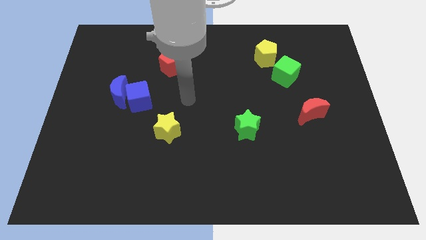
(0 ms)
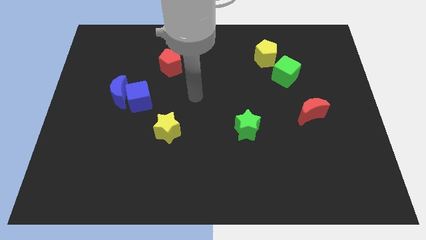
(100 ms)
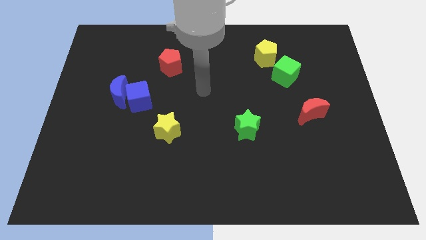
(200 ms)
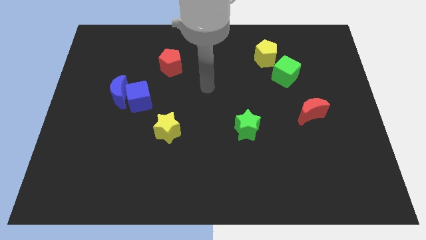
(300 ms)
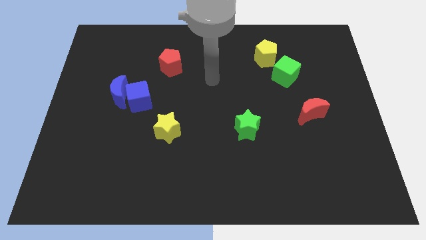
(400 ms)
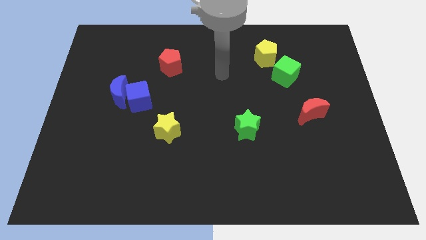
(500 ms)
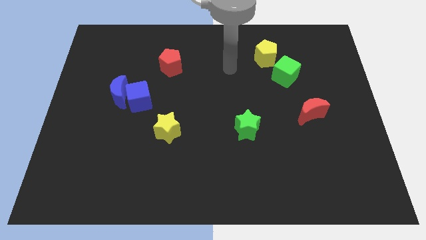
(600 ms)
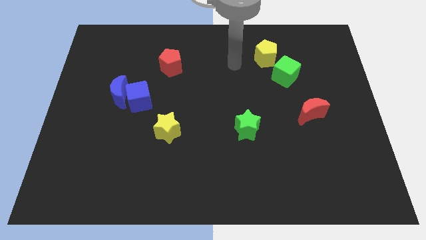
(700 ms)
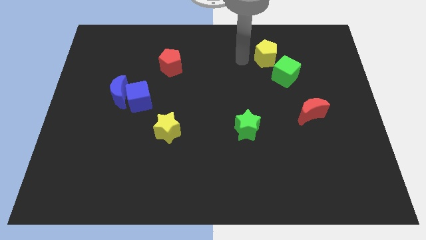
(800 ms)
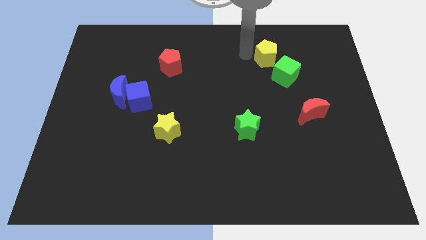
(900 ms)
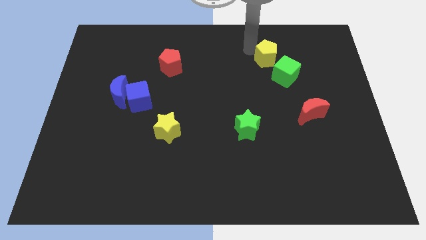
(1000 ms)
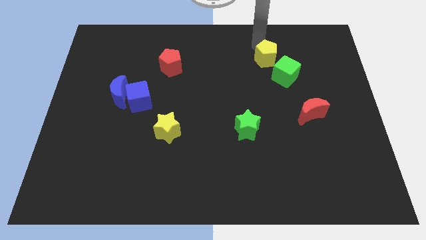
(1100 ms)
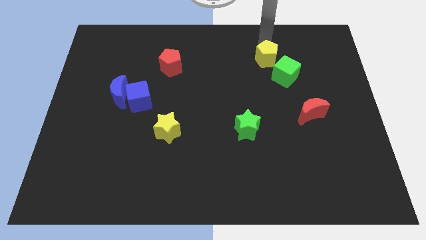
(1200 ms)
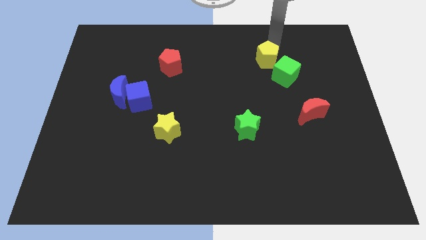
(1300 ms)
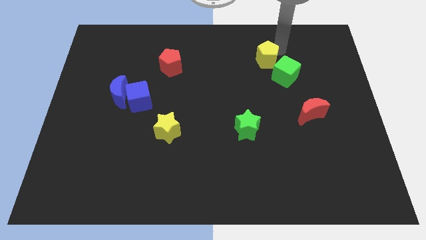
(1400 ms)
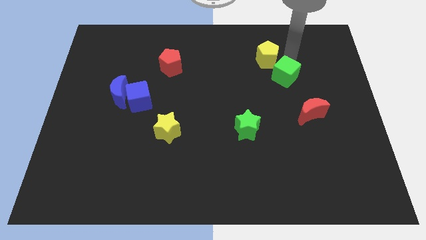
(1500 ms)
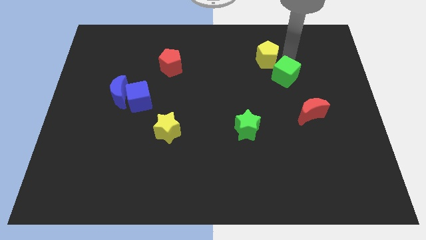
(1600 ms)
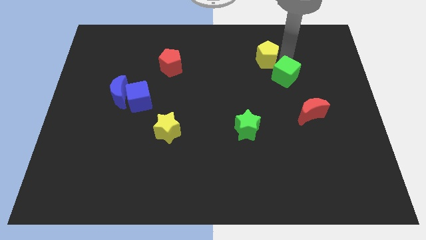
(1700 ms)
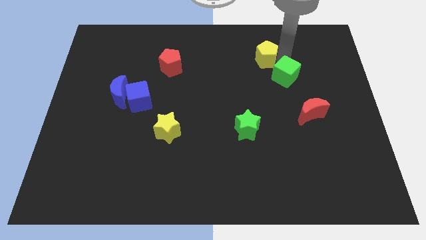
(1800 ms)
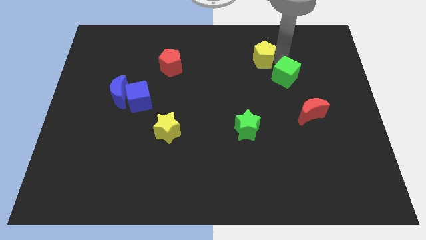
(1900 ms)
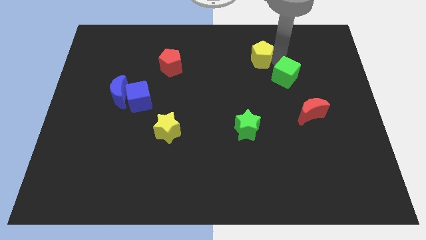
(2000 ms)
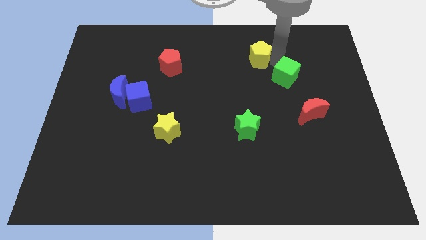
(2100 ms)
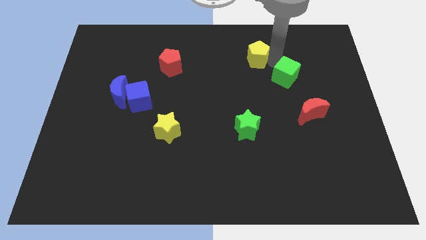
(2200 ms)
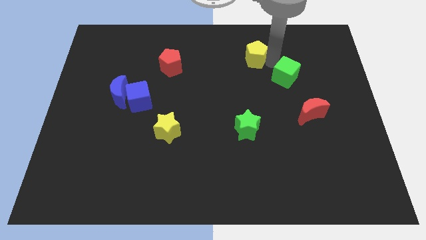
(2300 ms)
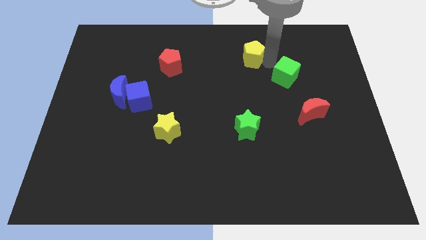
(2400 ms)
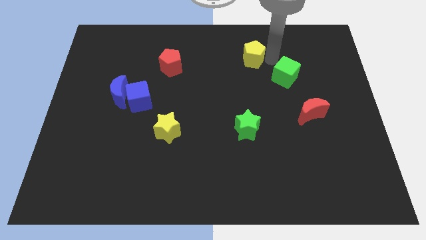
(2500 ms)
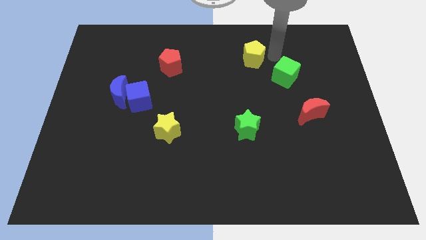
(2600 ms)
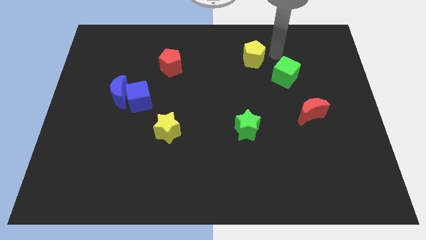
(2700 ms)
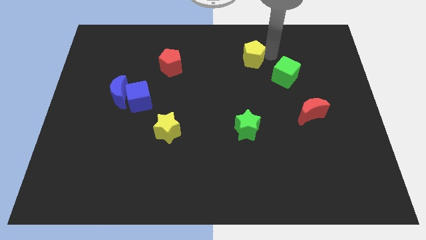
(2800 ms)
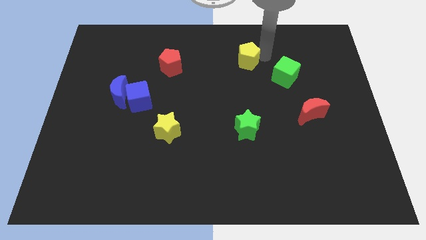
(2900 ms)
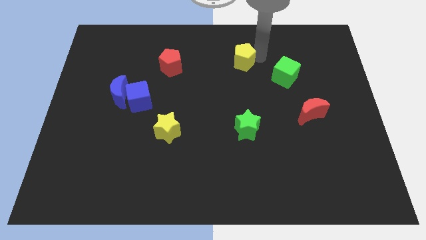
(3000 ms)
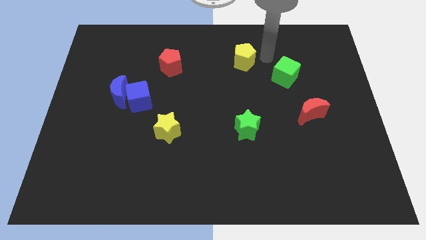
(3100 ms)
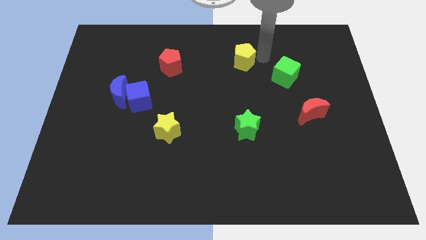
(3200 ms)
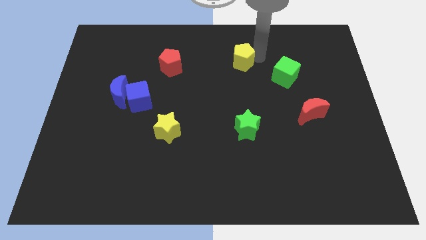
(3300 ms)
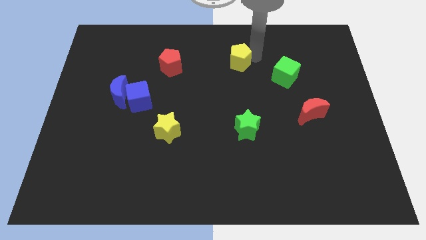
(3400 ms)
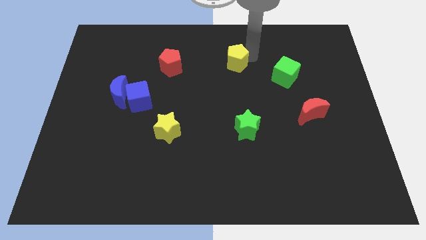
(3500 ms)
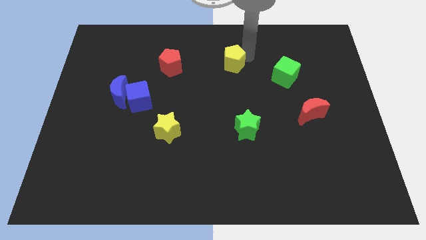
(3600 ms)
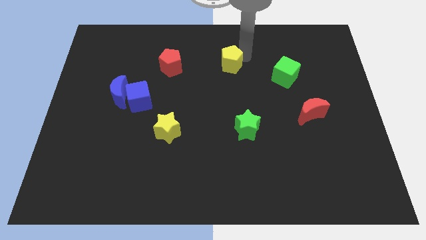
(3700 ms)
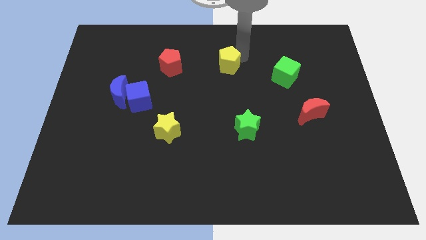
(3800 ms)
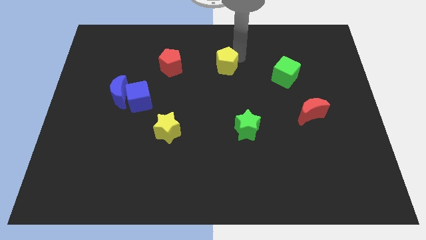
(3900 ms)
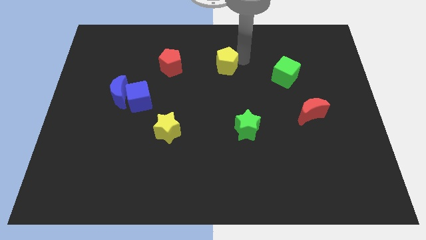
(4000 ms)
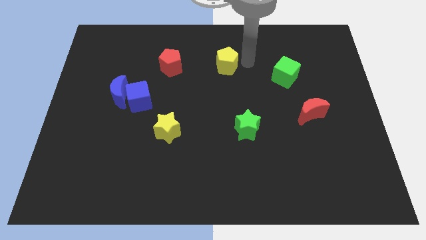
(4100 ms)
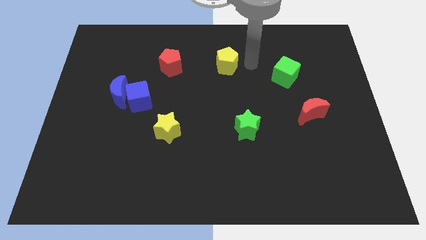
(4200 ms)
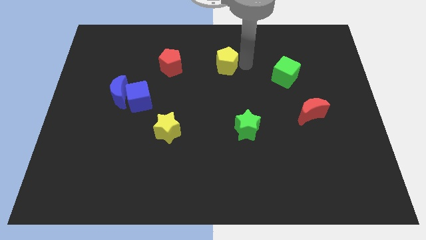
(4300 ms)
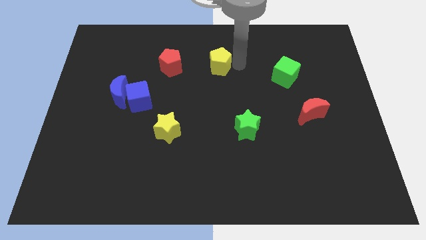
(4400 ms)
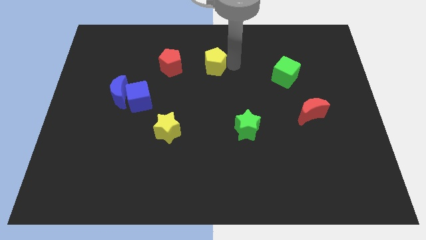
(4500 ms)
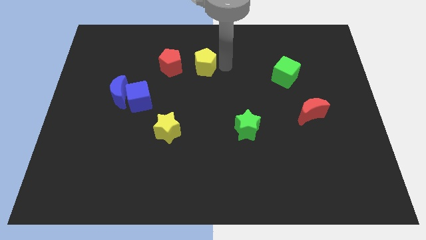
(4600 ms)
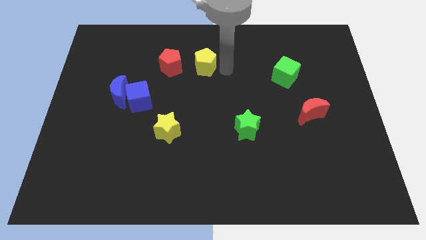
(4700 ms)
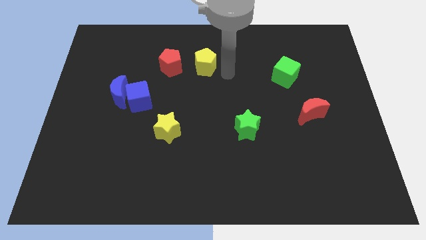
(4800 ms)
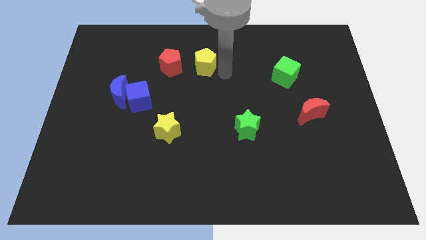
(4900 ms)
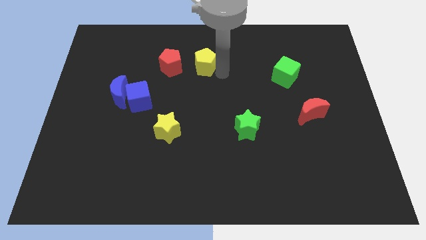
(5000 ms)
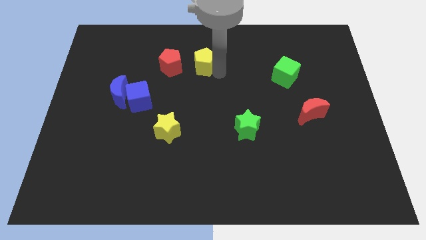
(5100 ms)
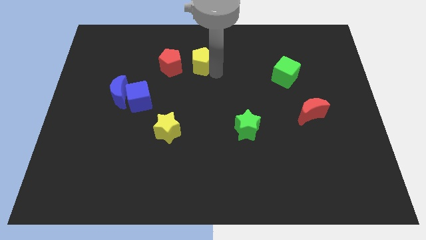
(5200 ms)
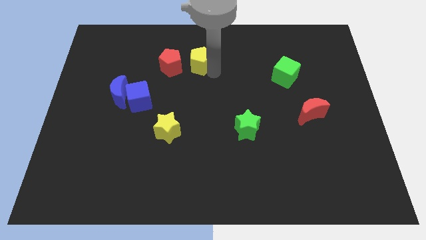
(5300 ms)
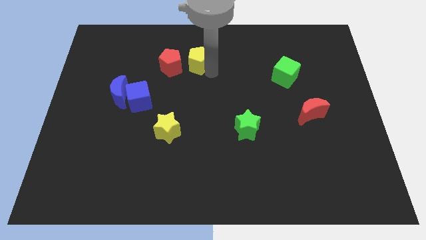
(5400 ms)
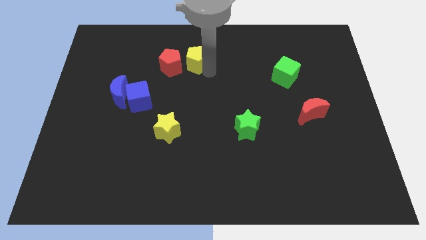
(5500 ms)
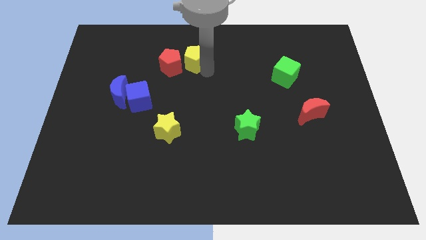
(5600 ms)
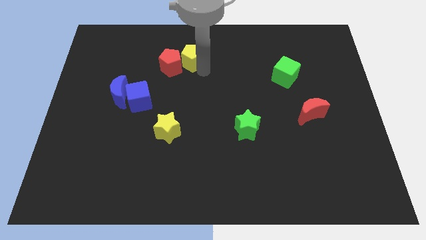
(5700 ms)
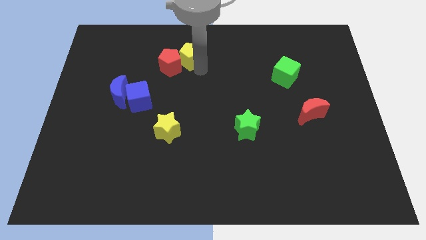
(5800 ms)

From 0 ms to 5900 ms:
push the yellow pentagon to the left

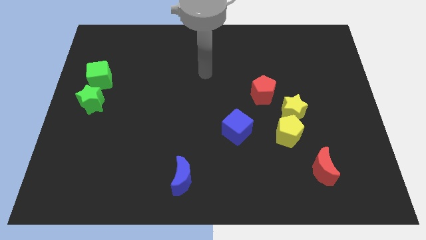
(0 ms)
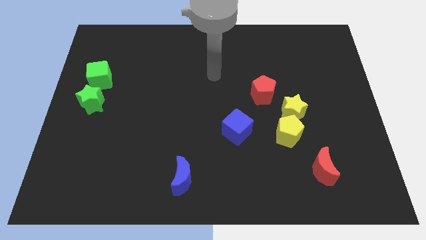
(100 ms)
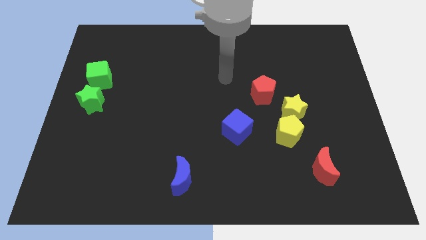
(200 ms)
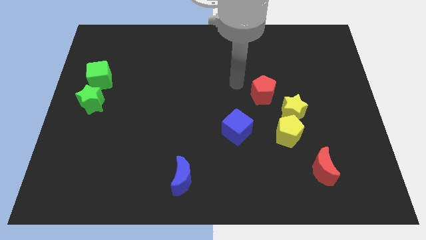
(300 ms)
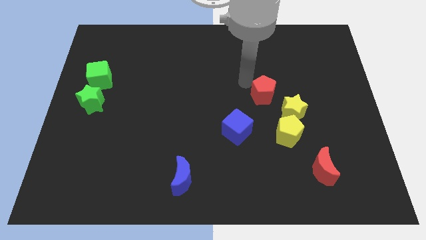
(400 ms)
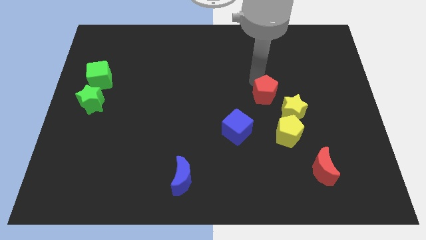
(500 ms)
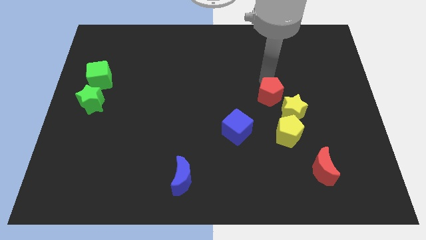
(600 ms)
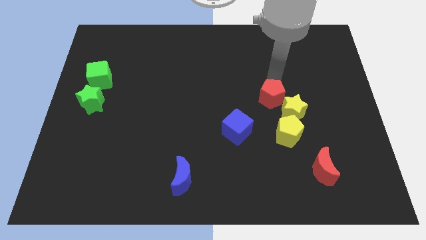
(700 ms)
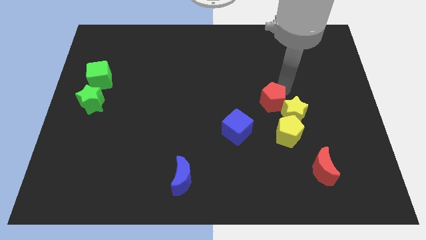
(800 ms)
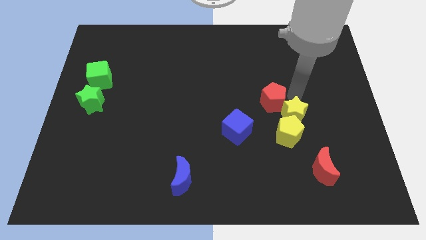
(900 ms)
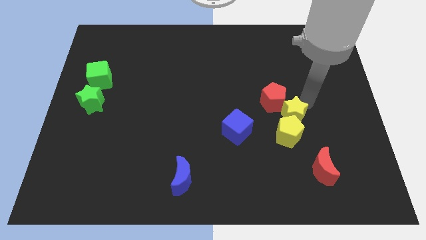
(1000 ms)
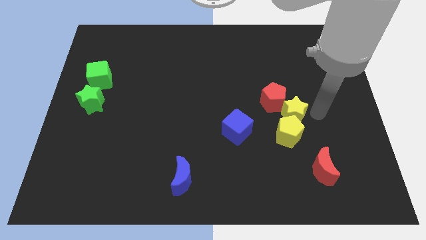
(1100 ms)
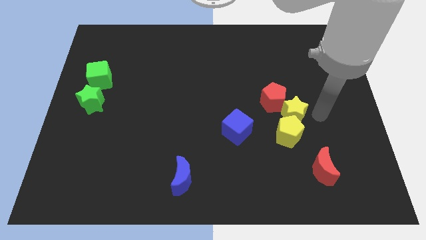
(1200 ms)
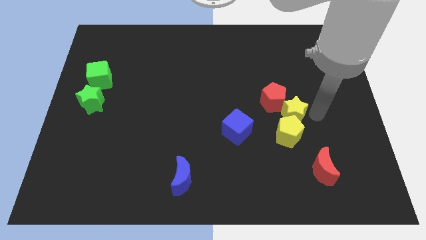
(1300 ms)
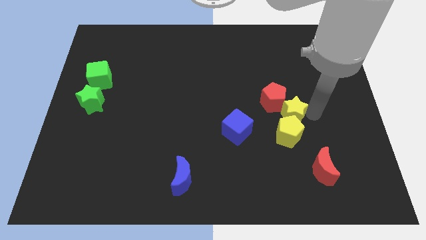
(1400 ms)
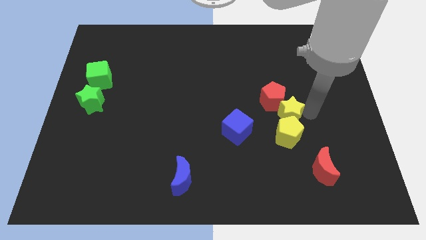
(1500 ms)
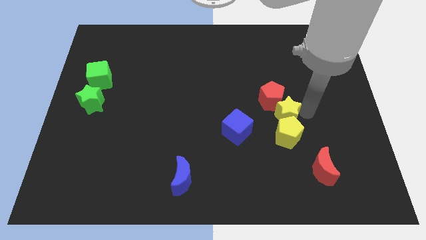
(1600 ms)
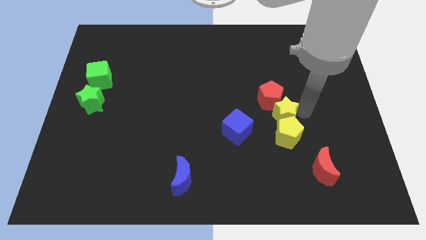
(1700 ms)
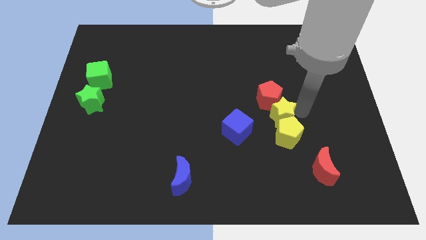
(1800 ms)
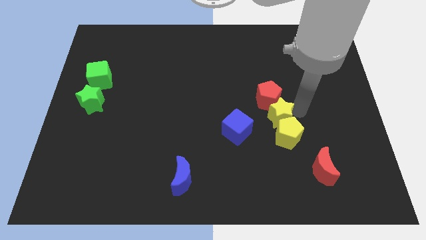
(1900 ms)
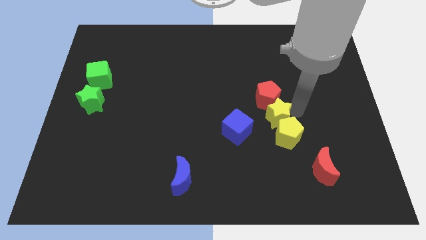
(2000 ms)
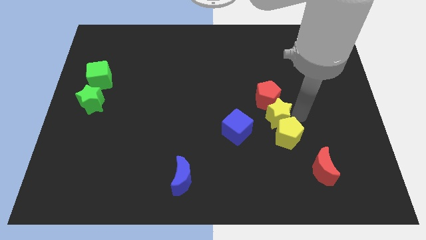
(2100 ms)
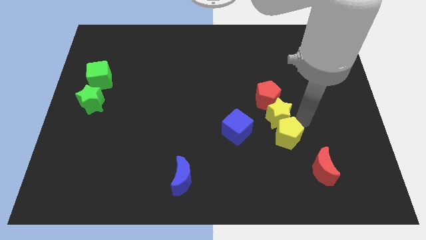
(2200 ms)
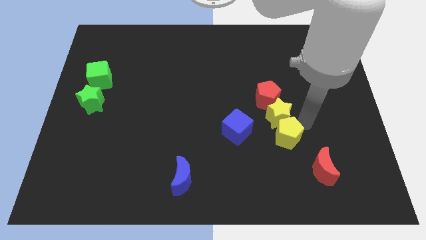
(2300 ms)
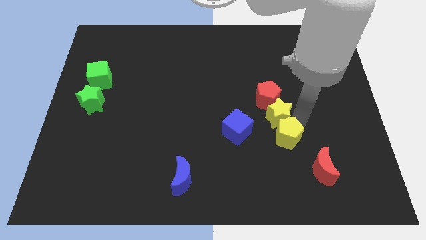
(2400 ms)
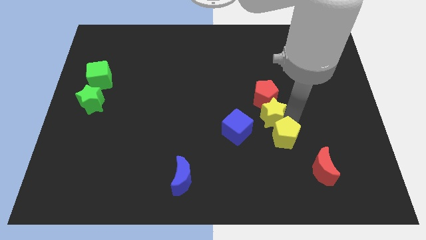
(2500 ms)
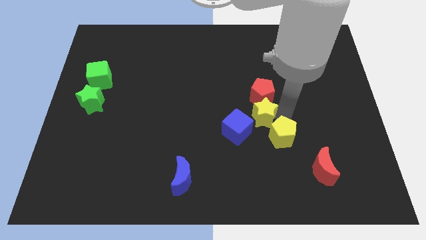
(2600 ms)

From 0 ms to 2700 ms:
slightly push the yellow star to the left
